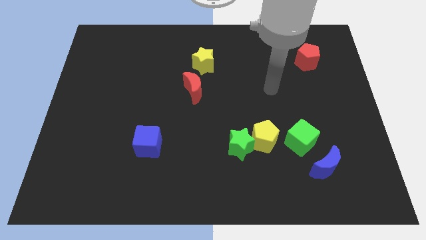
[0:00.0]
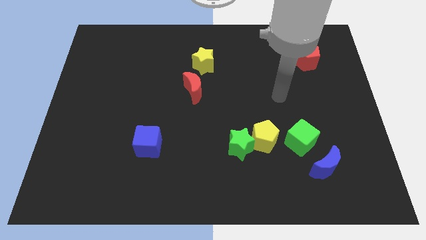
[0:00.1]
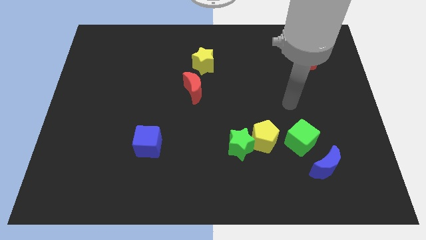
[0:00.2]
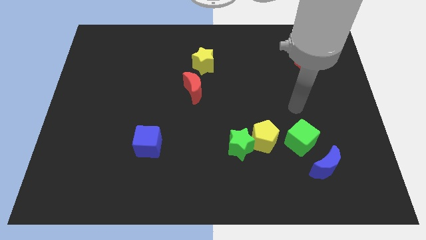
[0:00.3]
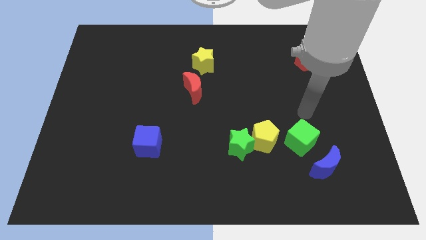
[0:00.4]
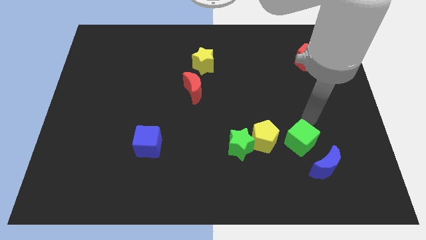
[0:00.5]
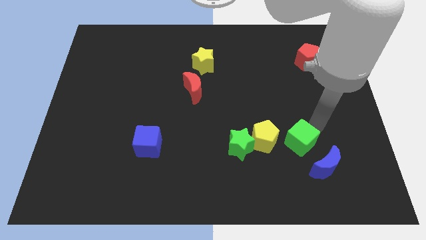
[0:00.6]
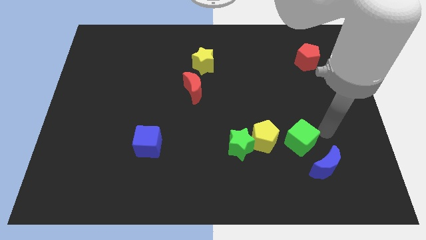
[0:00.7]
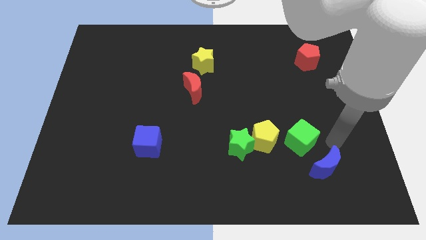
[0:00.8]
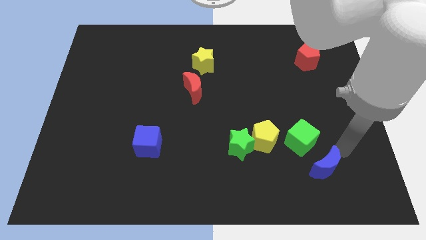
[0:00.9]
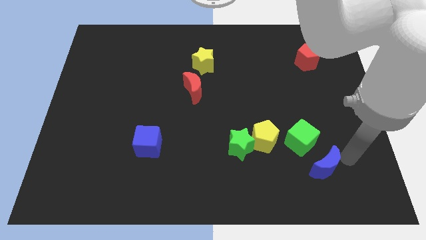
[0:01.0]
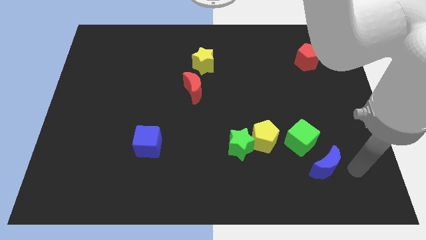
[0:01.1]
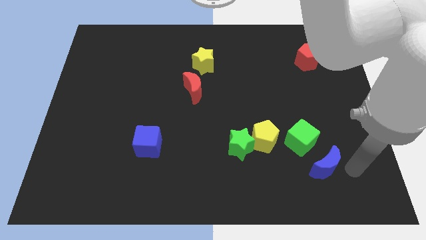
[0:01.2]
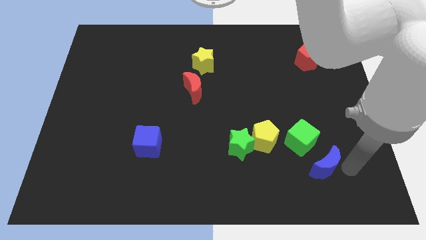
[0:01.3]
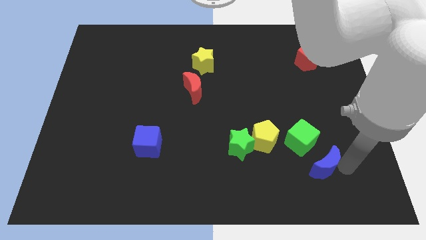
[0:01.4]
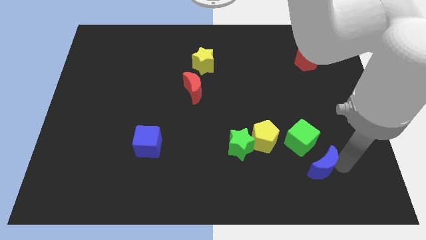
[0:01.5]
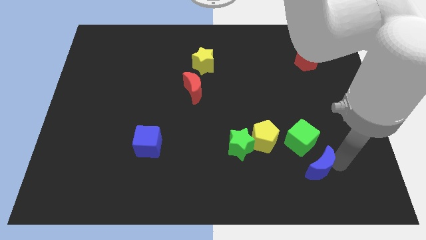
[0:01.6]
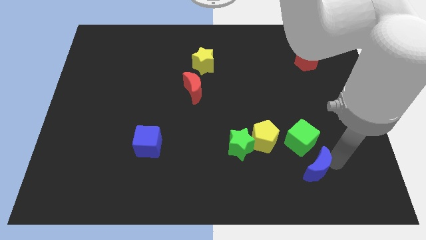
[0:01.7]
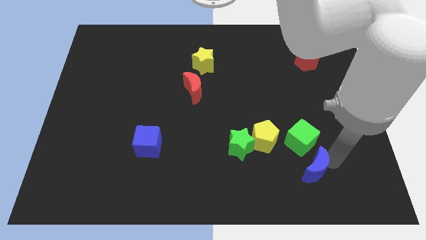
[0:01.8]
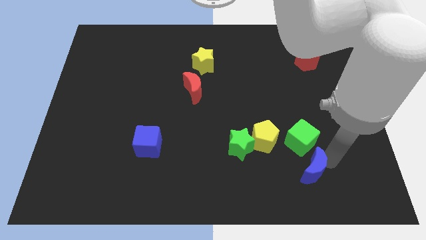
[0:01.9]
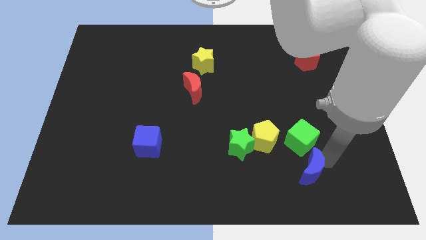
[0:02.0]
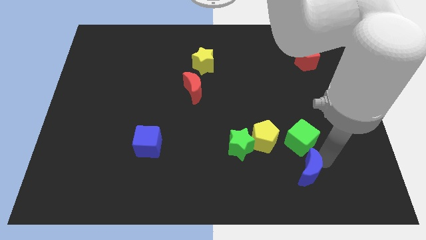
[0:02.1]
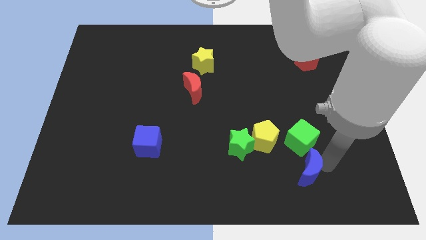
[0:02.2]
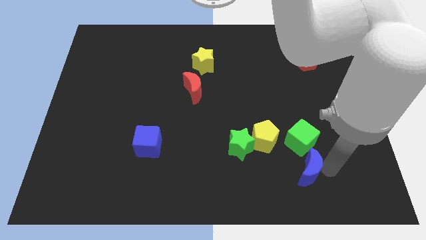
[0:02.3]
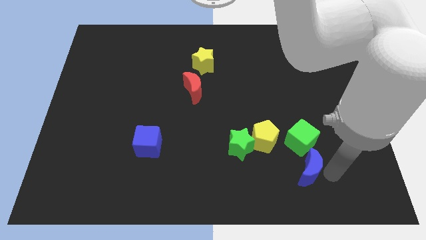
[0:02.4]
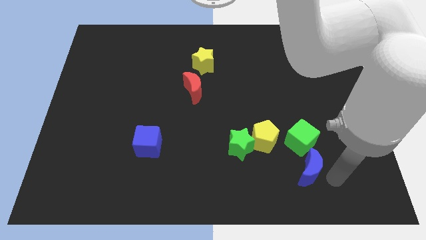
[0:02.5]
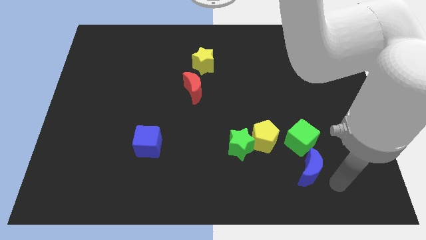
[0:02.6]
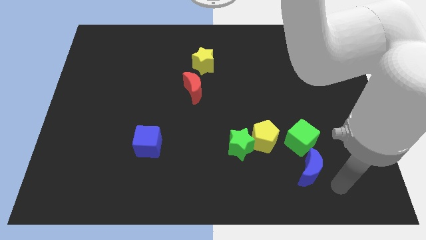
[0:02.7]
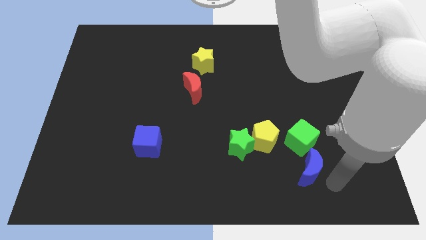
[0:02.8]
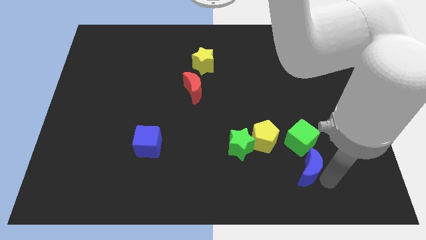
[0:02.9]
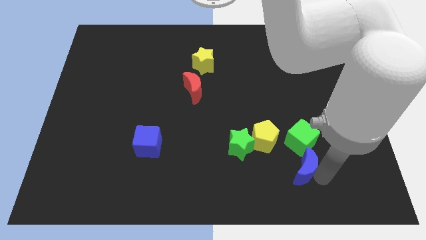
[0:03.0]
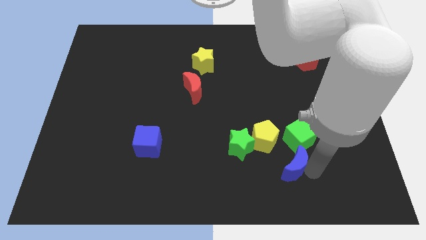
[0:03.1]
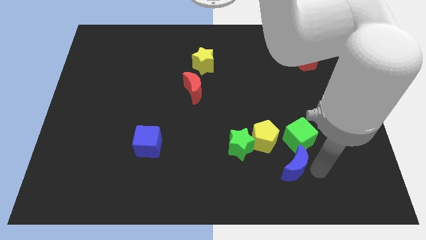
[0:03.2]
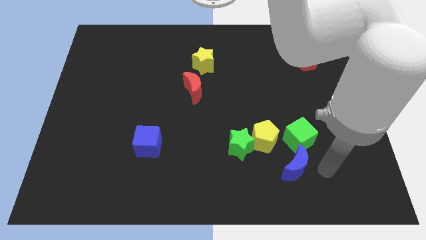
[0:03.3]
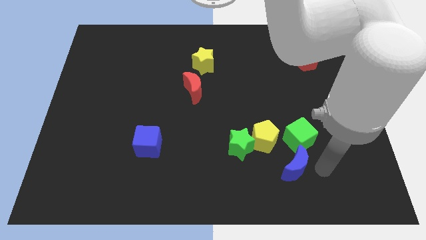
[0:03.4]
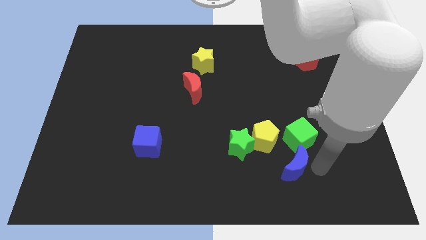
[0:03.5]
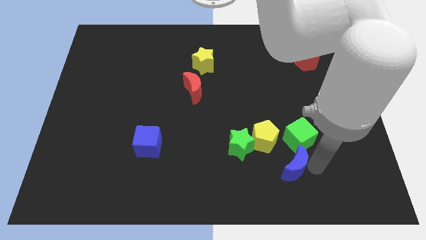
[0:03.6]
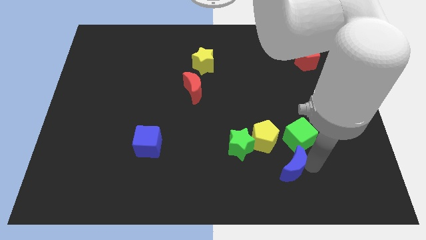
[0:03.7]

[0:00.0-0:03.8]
move the blue moon to the left a little

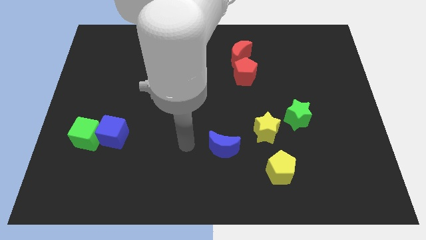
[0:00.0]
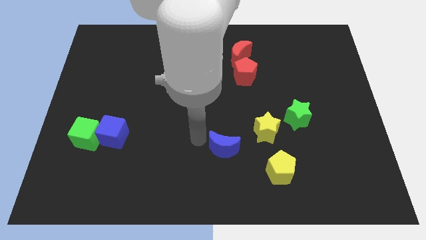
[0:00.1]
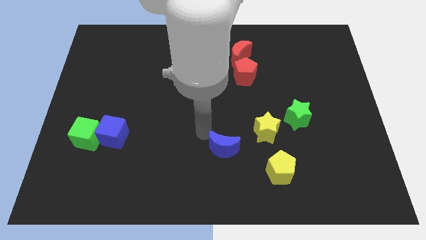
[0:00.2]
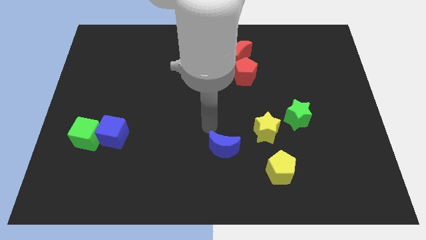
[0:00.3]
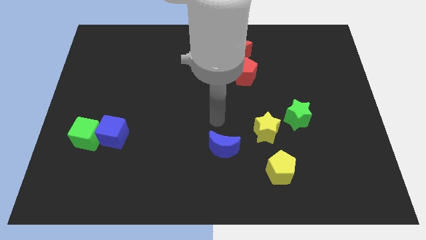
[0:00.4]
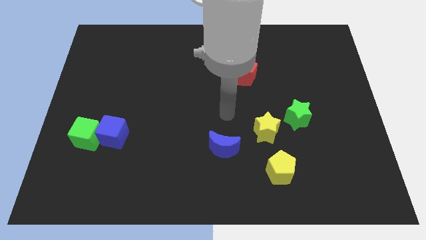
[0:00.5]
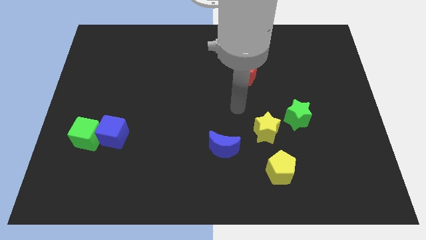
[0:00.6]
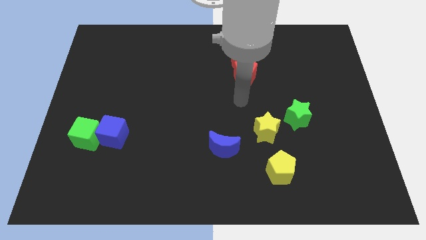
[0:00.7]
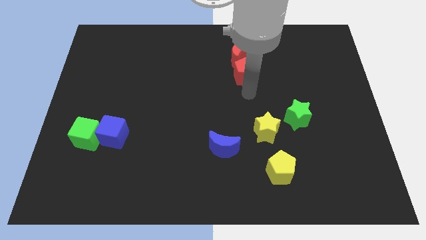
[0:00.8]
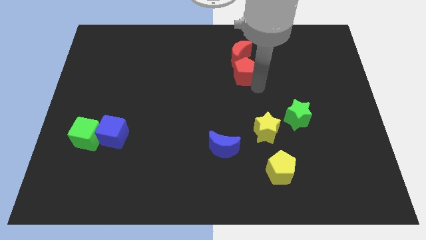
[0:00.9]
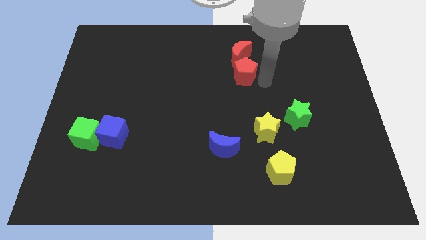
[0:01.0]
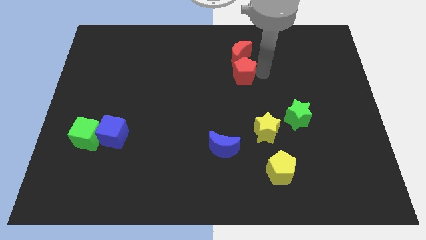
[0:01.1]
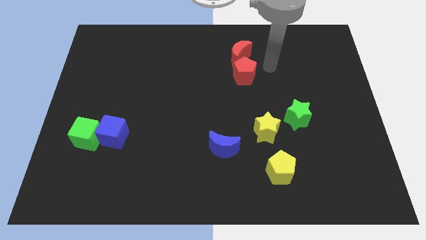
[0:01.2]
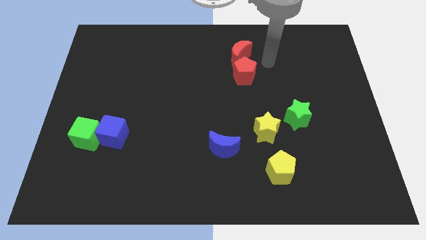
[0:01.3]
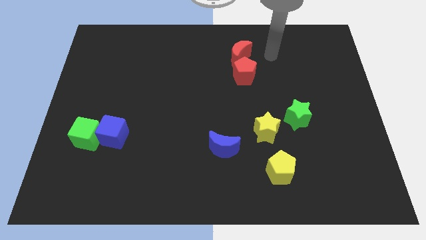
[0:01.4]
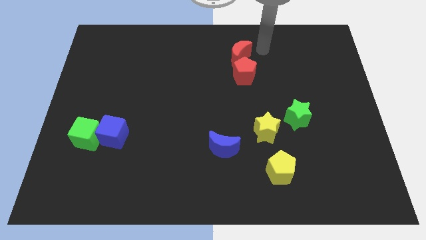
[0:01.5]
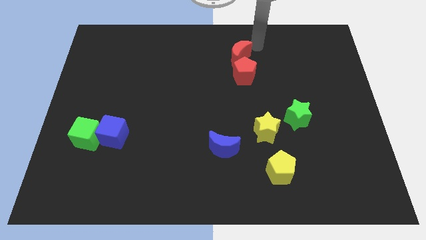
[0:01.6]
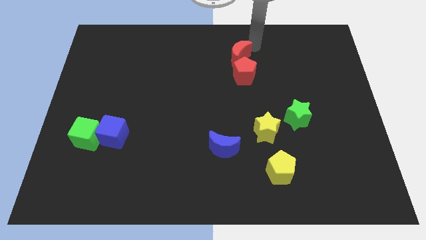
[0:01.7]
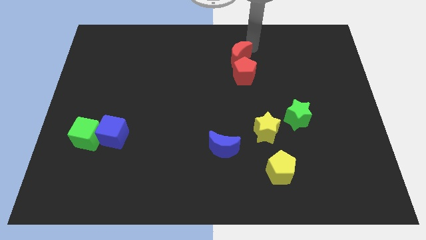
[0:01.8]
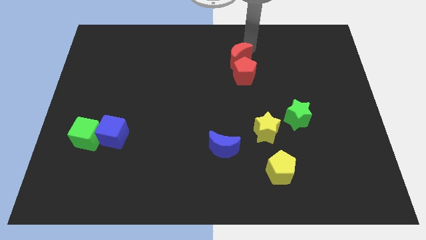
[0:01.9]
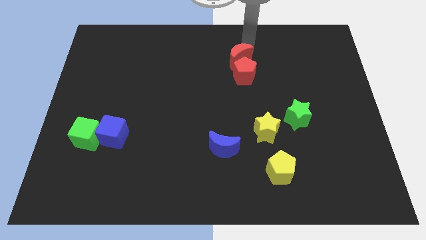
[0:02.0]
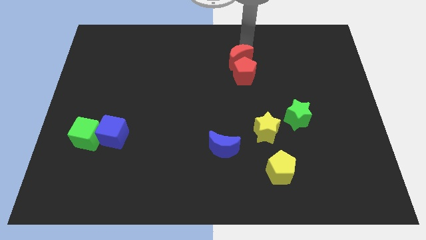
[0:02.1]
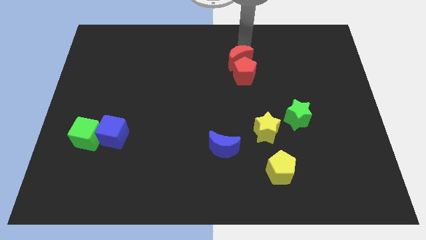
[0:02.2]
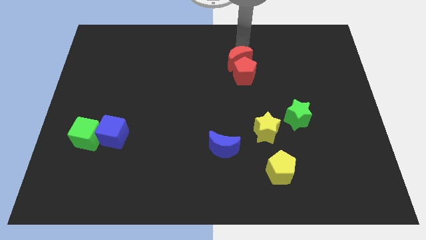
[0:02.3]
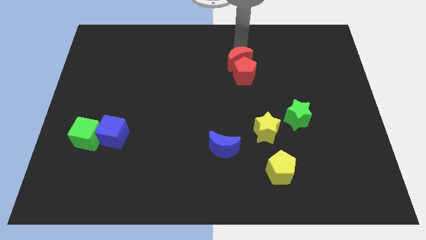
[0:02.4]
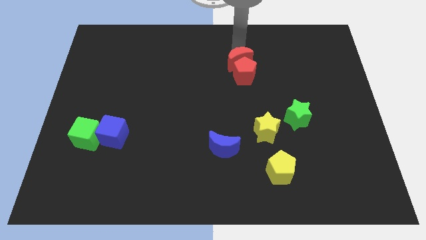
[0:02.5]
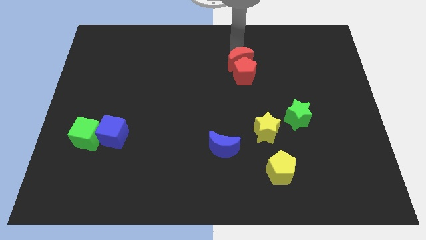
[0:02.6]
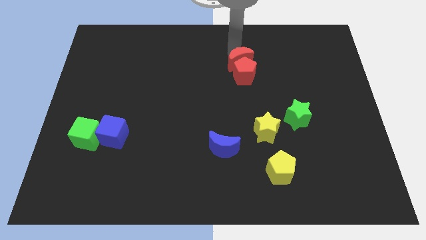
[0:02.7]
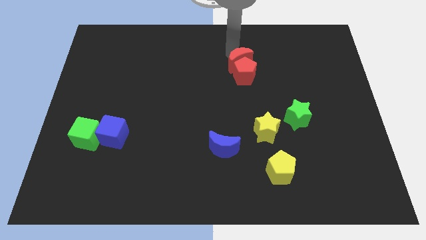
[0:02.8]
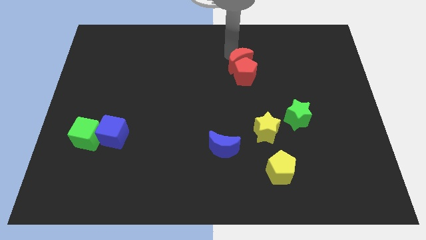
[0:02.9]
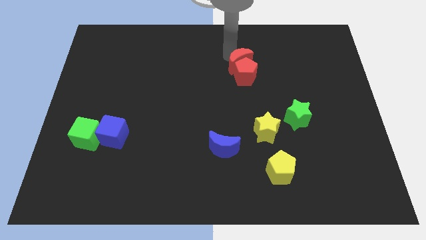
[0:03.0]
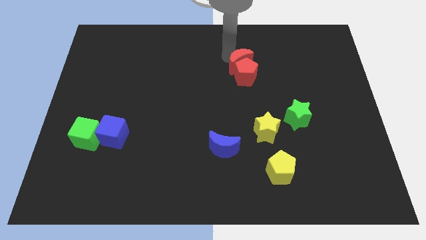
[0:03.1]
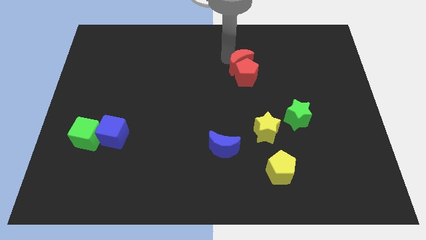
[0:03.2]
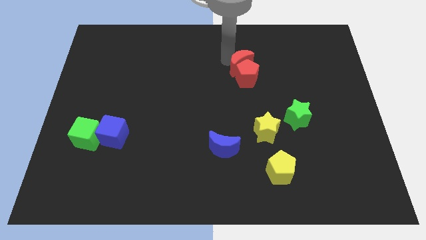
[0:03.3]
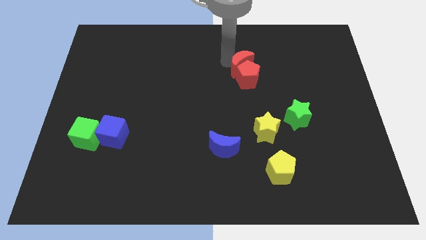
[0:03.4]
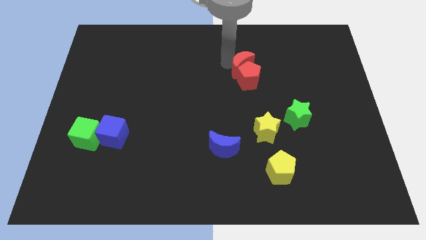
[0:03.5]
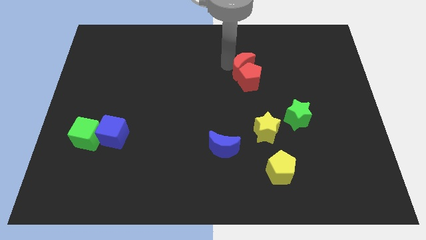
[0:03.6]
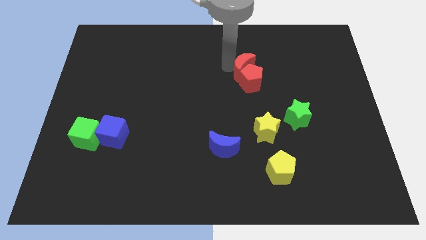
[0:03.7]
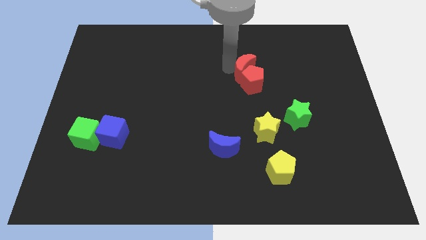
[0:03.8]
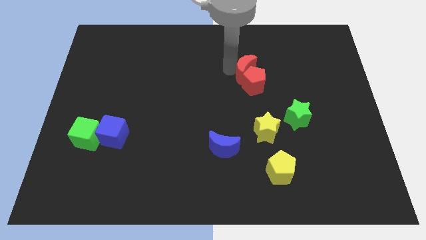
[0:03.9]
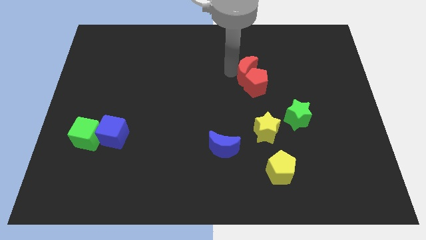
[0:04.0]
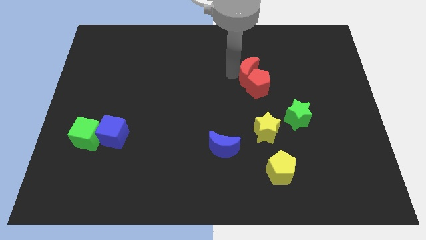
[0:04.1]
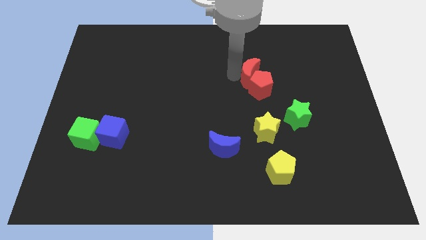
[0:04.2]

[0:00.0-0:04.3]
slightly move the red moon downwards

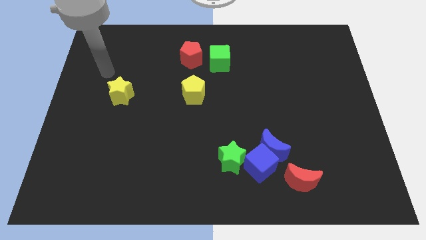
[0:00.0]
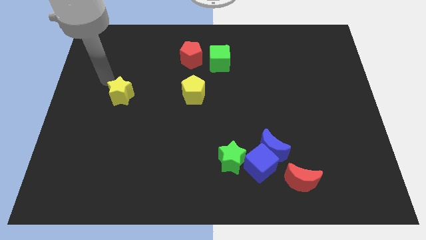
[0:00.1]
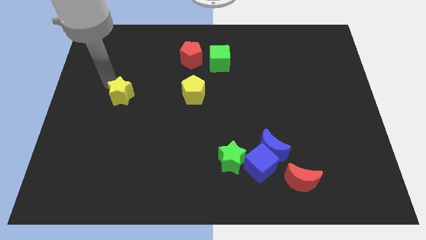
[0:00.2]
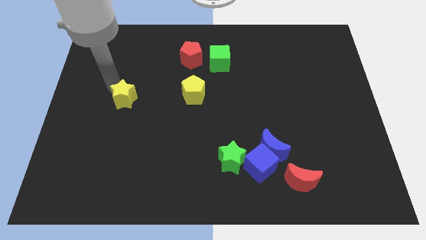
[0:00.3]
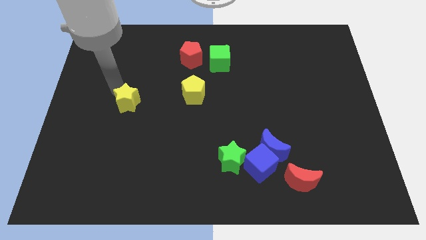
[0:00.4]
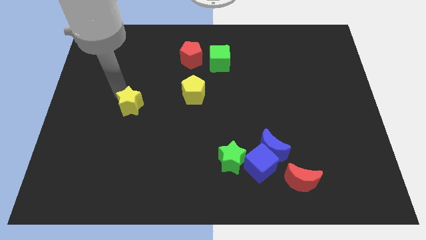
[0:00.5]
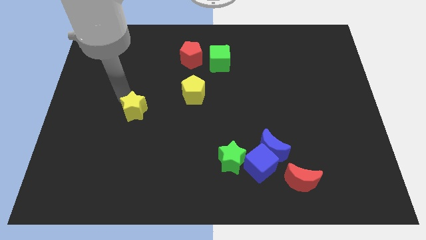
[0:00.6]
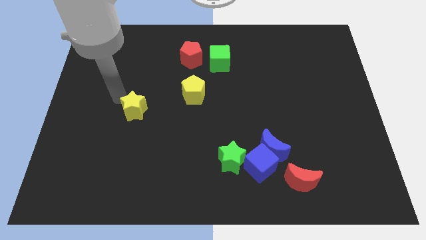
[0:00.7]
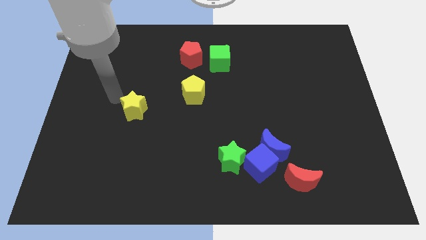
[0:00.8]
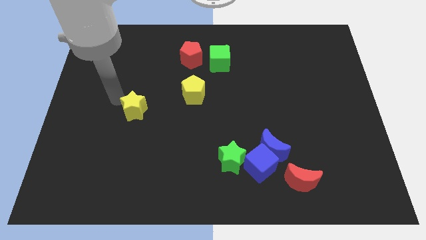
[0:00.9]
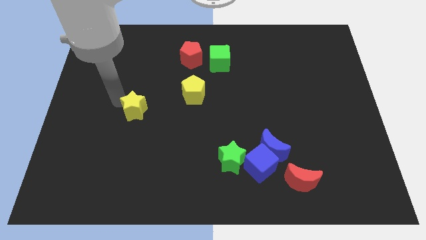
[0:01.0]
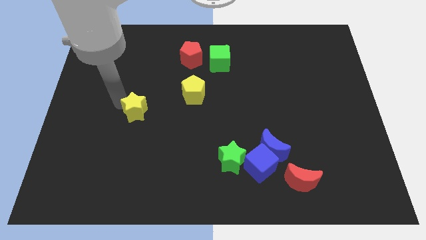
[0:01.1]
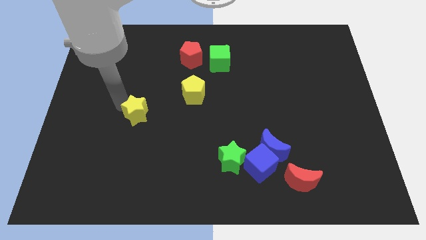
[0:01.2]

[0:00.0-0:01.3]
slightly push the yellow star diagonally down and to the right
